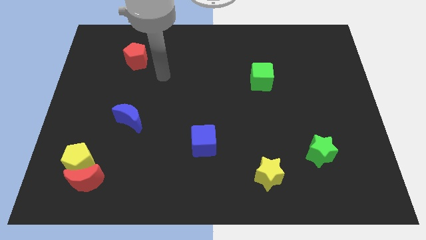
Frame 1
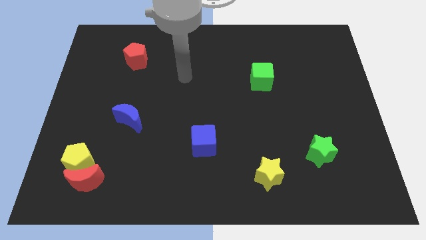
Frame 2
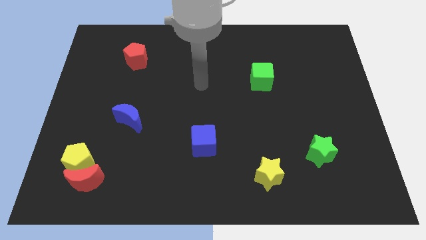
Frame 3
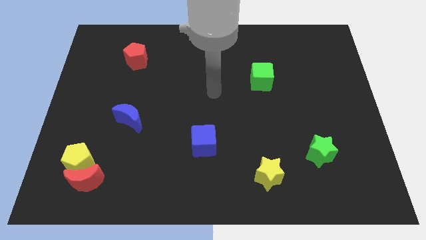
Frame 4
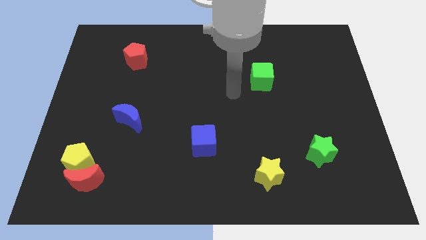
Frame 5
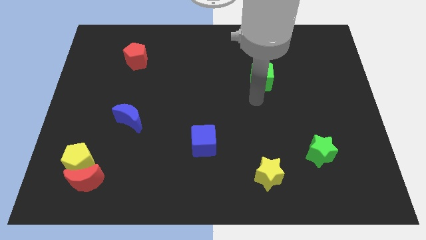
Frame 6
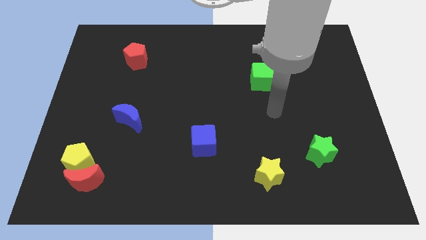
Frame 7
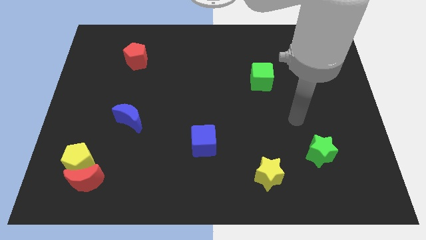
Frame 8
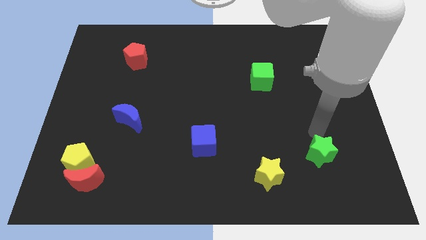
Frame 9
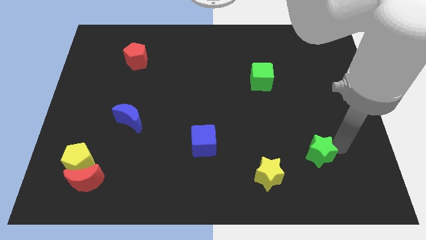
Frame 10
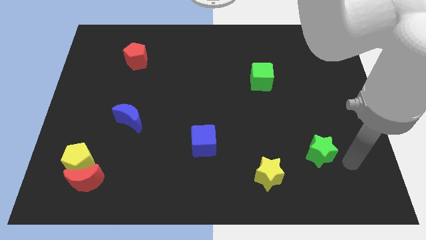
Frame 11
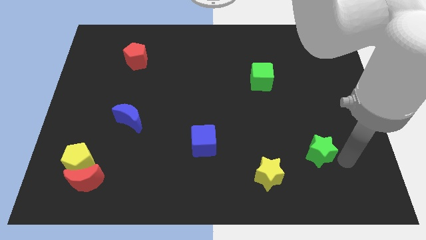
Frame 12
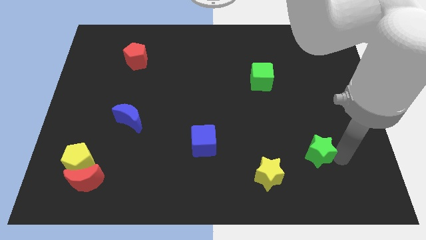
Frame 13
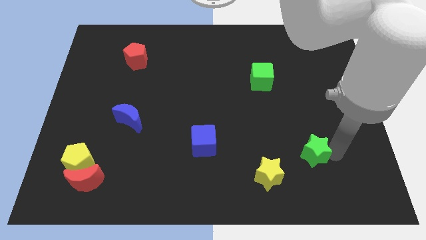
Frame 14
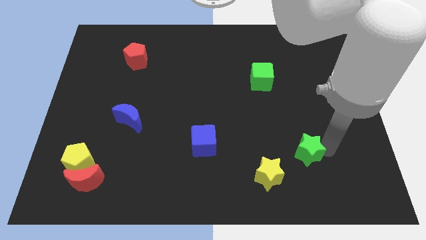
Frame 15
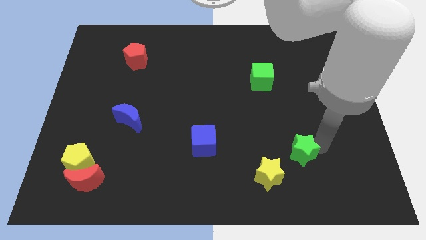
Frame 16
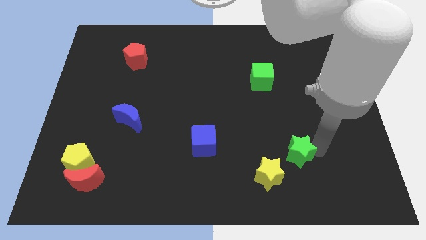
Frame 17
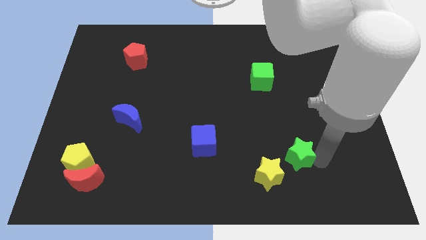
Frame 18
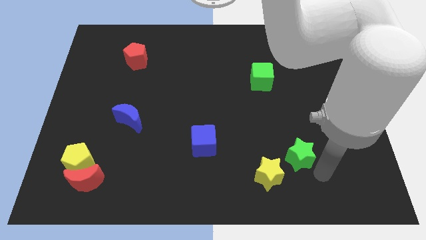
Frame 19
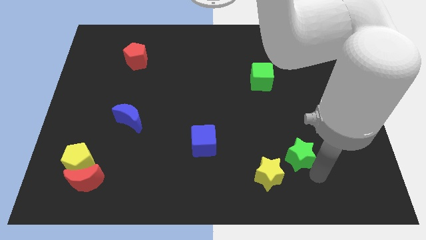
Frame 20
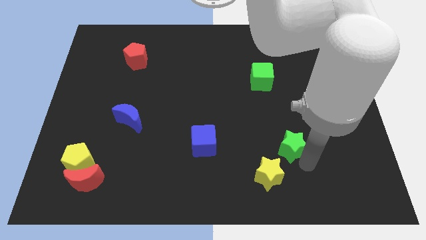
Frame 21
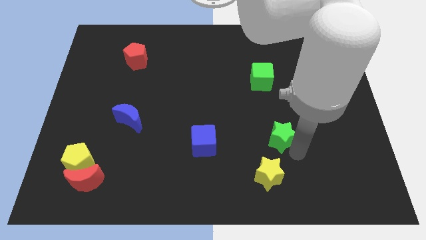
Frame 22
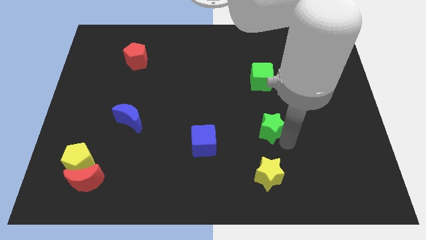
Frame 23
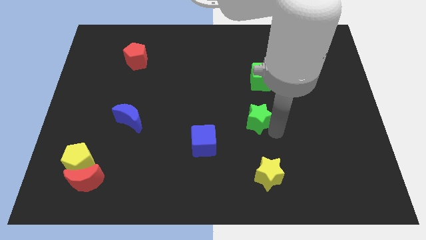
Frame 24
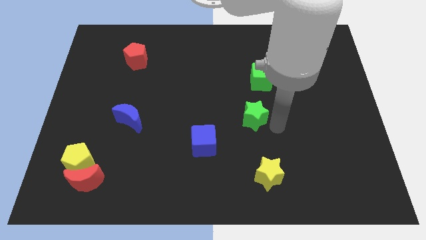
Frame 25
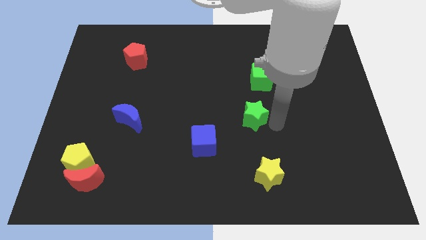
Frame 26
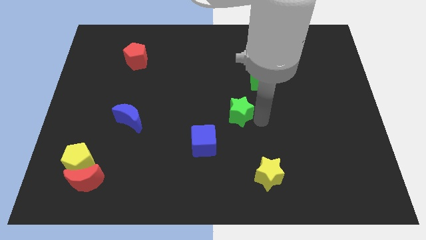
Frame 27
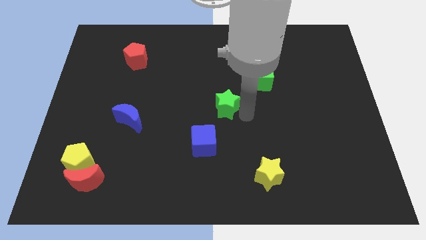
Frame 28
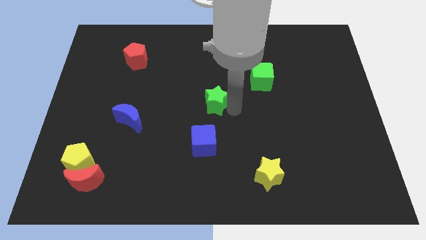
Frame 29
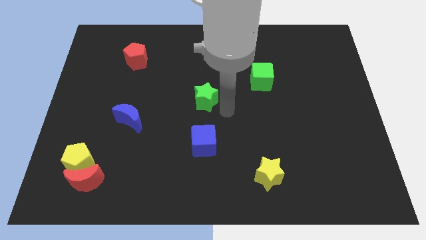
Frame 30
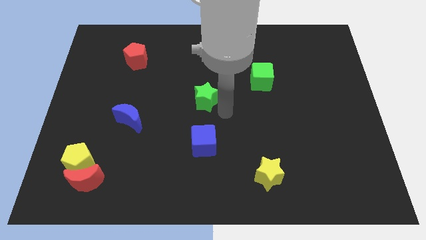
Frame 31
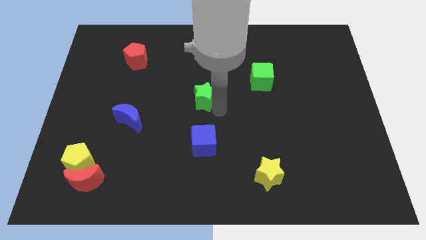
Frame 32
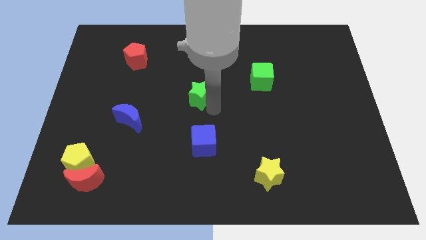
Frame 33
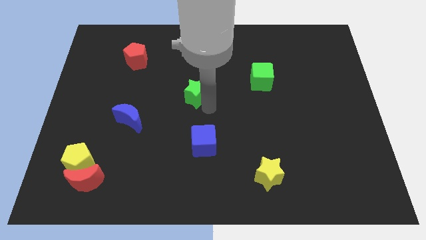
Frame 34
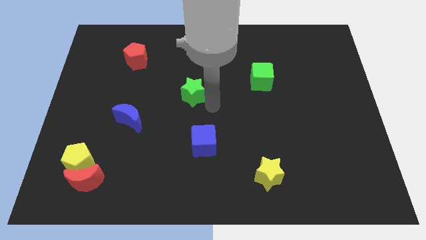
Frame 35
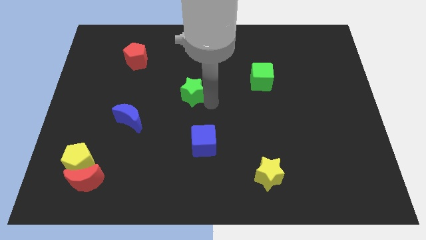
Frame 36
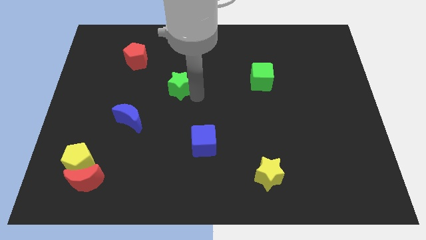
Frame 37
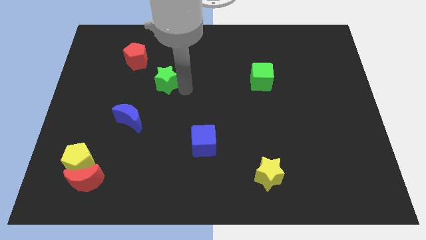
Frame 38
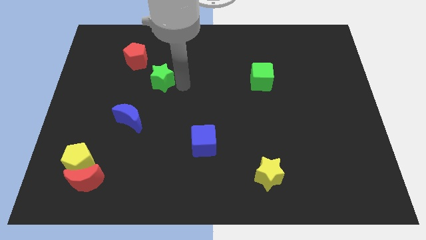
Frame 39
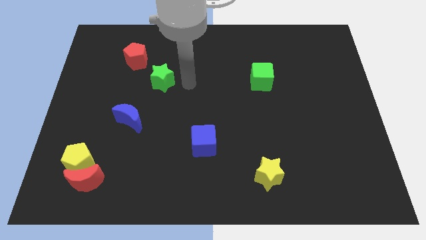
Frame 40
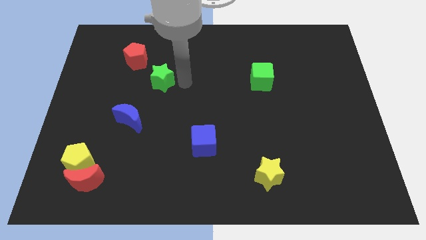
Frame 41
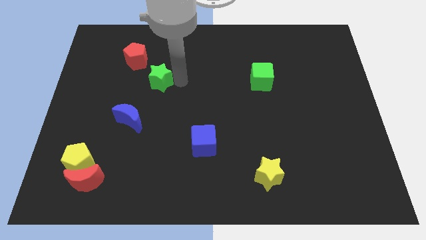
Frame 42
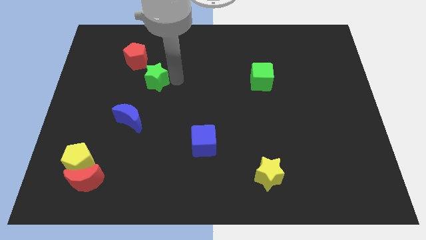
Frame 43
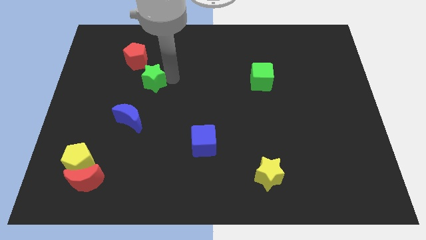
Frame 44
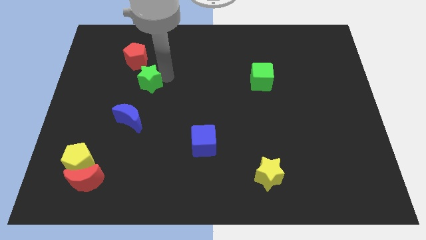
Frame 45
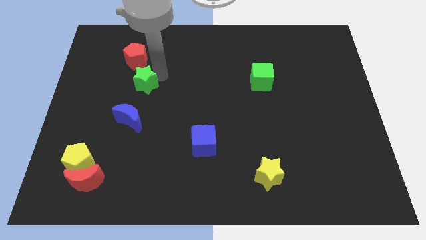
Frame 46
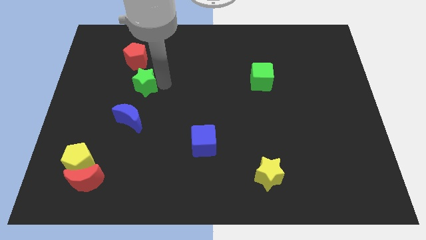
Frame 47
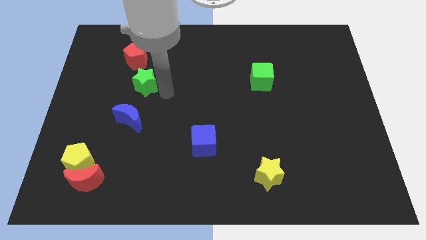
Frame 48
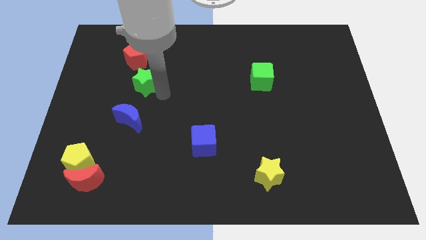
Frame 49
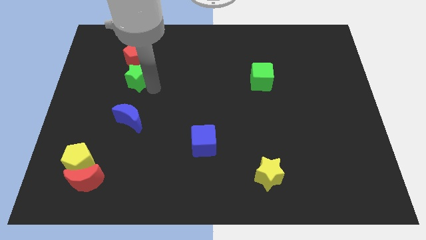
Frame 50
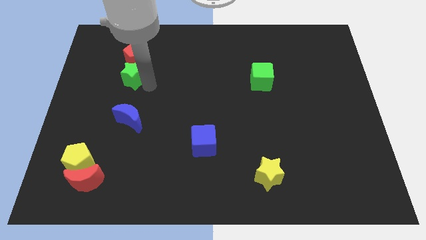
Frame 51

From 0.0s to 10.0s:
put the green star to the bottom left of the red pentagon
